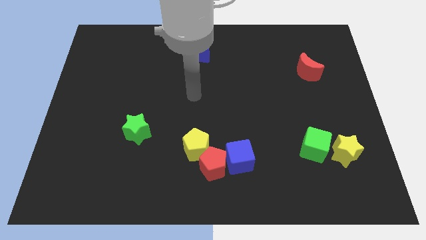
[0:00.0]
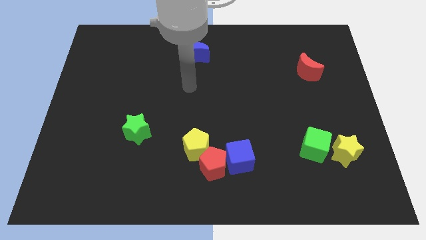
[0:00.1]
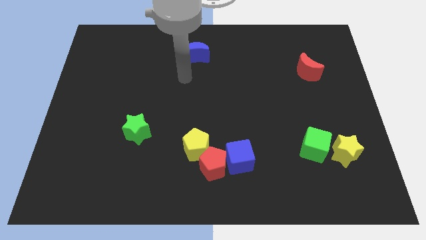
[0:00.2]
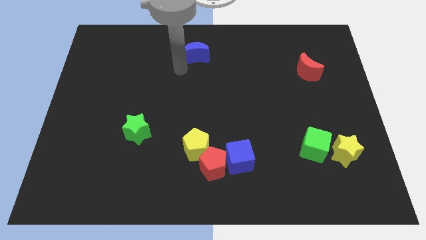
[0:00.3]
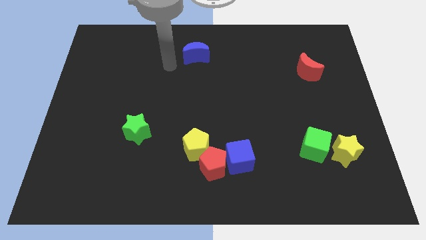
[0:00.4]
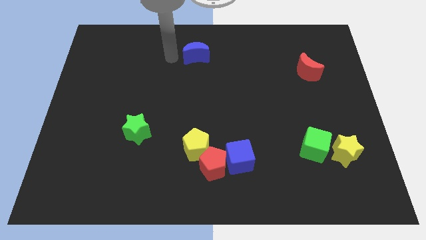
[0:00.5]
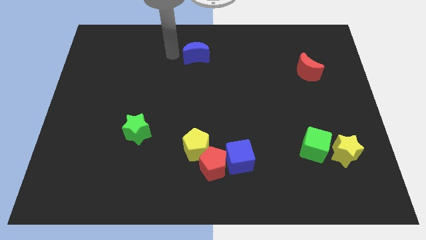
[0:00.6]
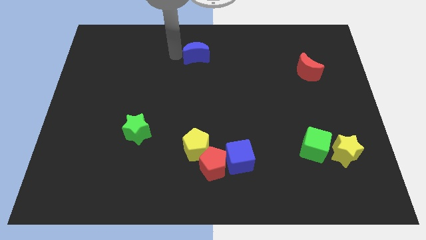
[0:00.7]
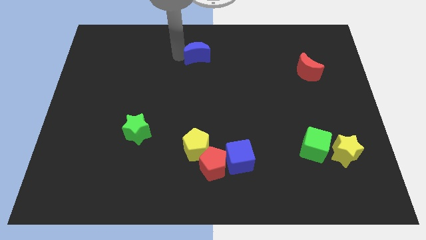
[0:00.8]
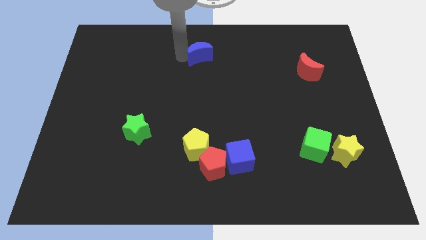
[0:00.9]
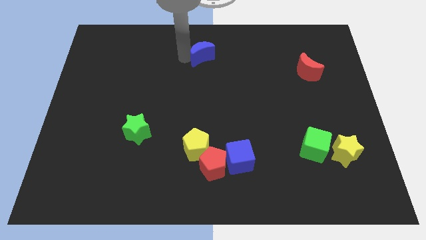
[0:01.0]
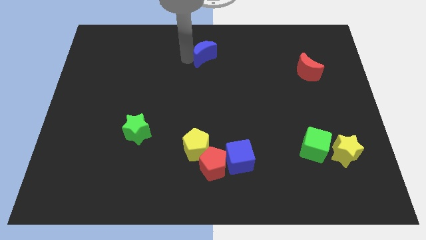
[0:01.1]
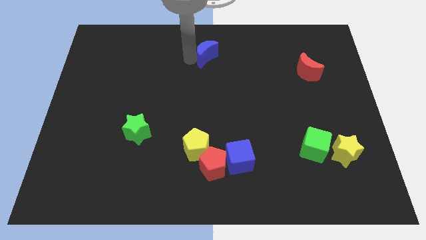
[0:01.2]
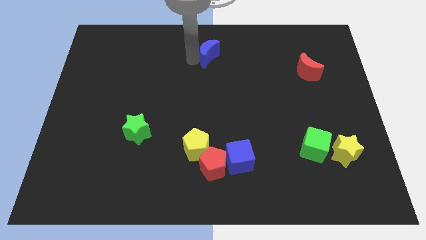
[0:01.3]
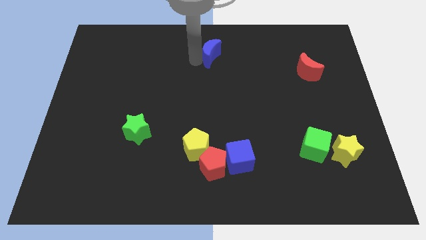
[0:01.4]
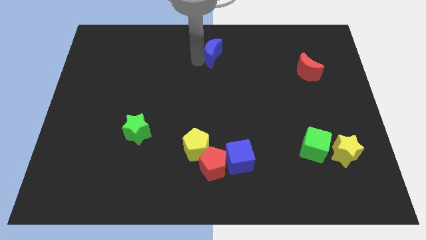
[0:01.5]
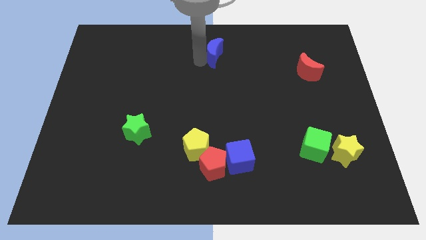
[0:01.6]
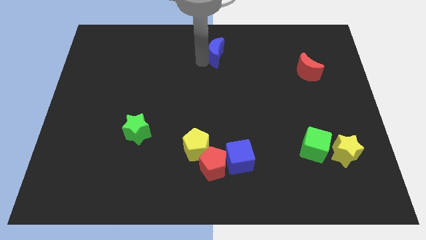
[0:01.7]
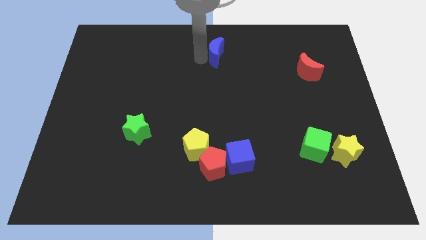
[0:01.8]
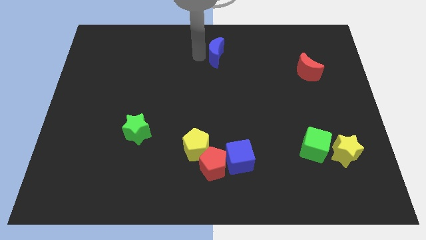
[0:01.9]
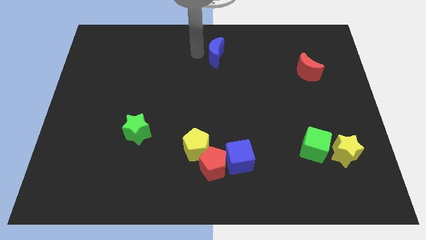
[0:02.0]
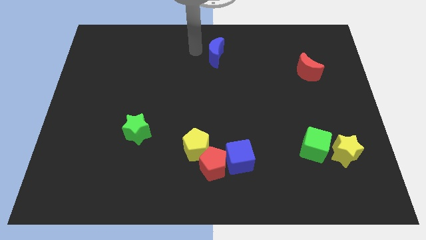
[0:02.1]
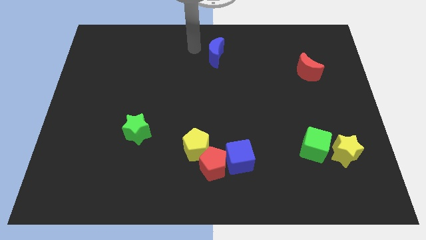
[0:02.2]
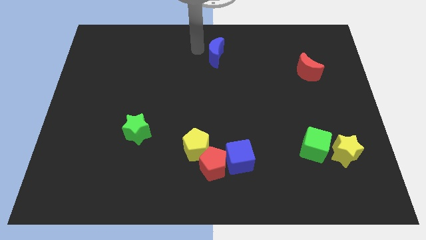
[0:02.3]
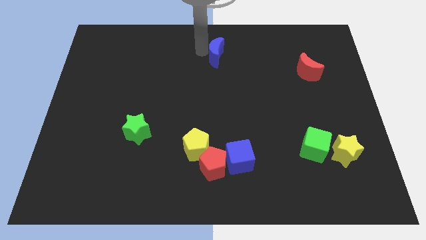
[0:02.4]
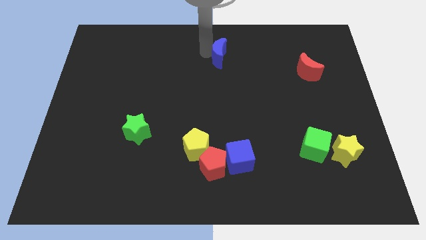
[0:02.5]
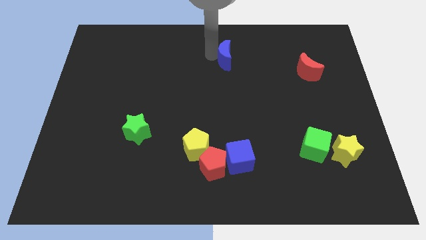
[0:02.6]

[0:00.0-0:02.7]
move the blue moon somewhat right

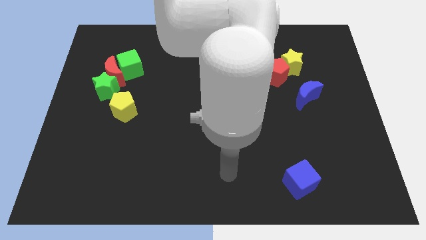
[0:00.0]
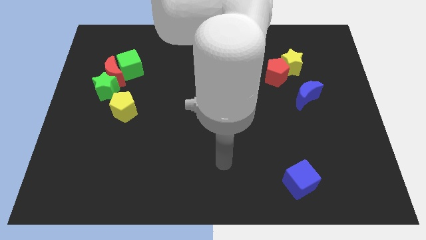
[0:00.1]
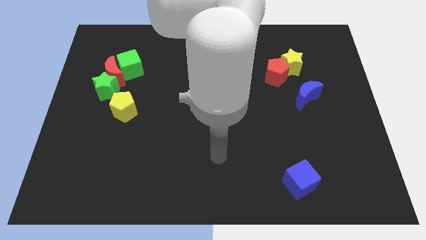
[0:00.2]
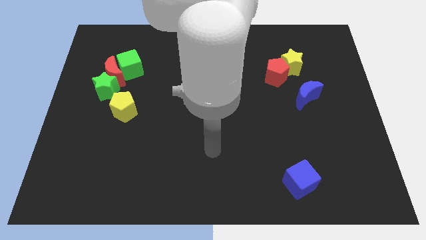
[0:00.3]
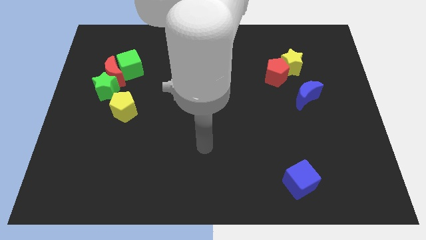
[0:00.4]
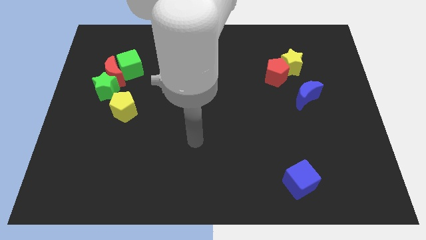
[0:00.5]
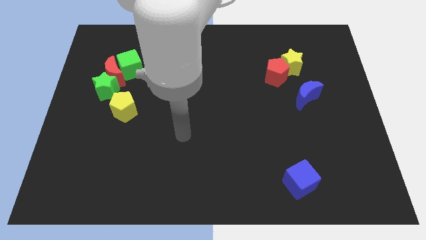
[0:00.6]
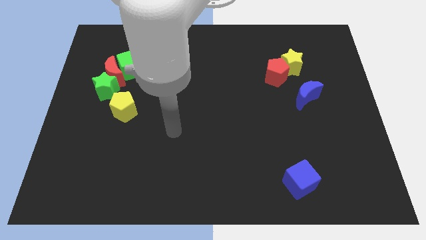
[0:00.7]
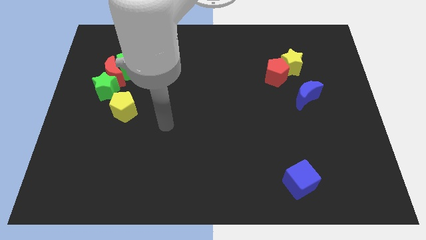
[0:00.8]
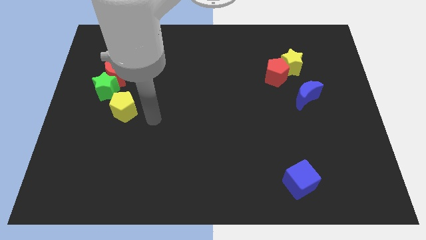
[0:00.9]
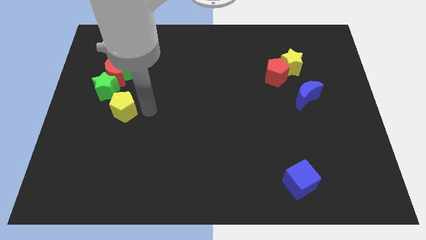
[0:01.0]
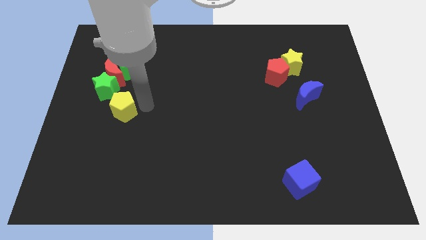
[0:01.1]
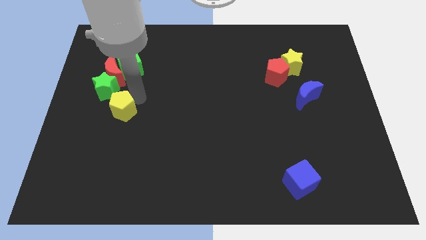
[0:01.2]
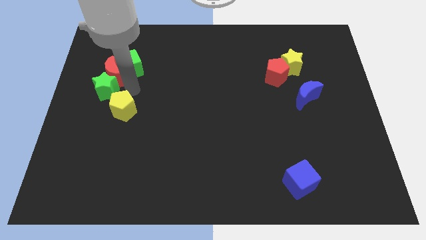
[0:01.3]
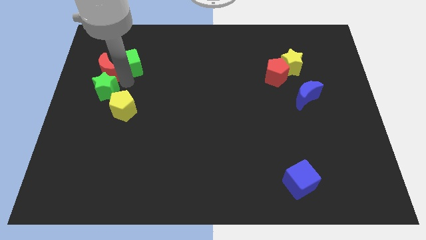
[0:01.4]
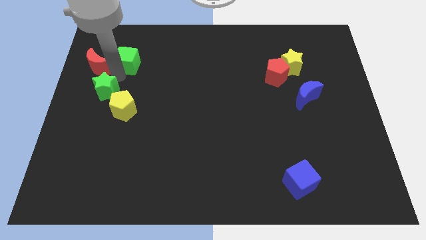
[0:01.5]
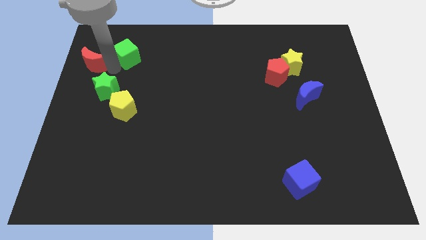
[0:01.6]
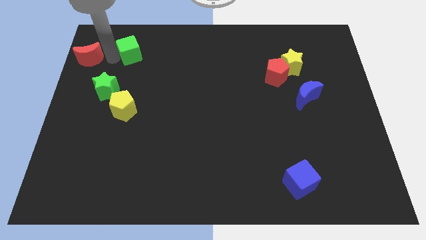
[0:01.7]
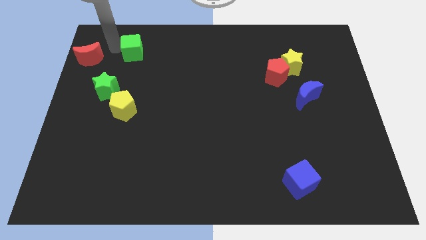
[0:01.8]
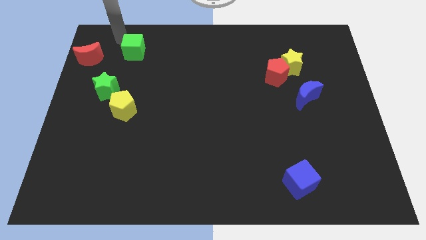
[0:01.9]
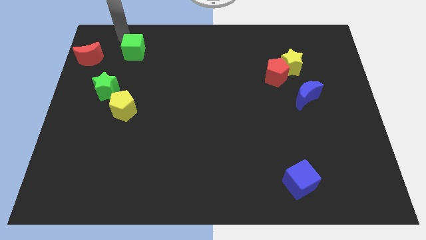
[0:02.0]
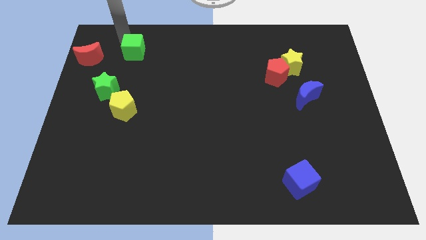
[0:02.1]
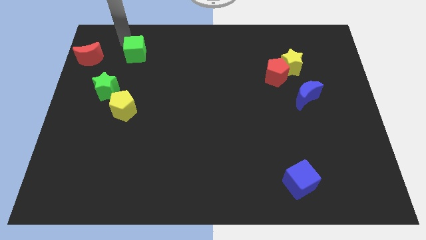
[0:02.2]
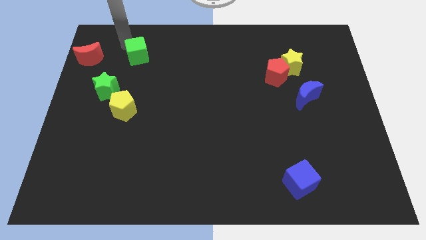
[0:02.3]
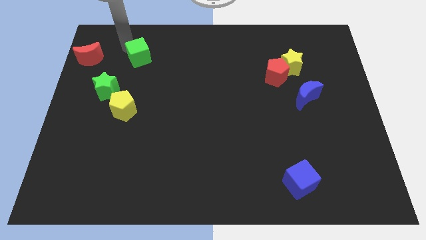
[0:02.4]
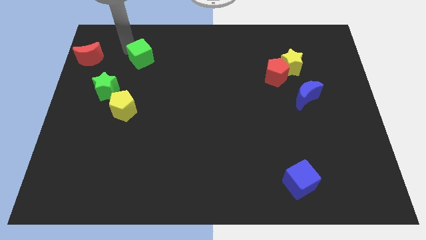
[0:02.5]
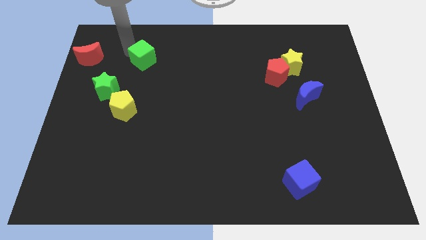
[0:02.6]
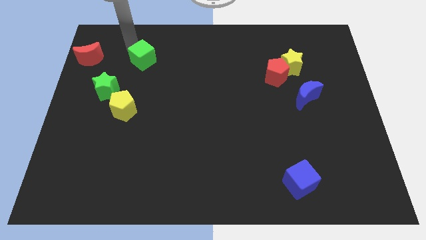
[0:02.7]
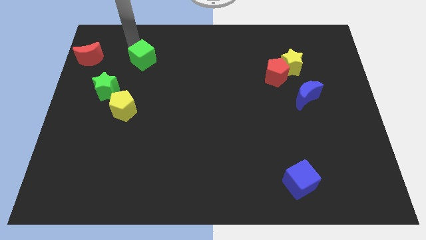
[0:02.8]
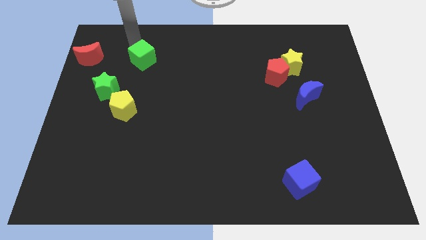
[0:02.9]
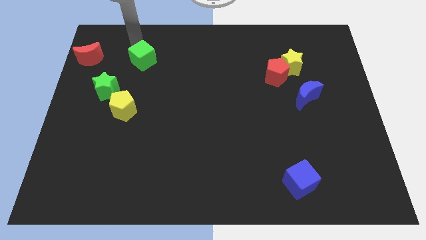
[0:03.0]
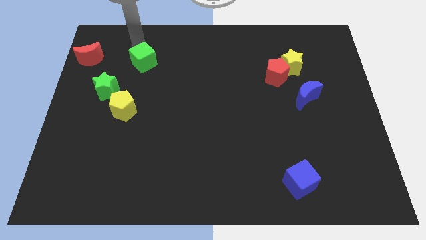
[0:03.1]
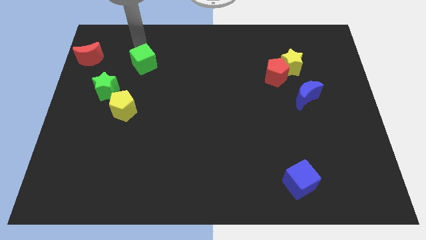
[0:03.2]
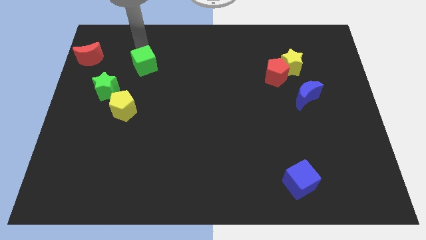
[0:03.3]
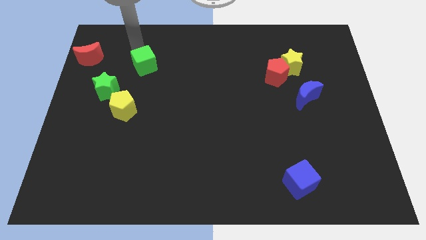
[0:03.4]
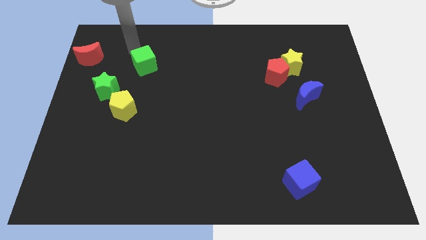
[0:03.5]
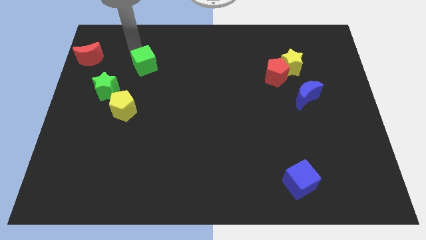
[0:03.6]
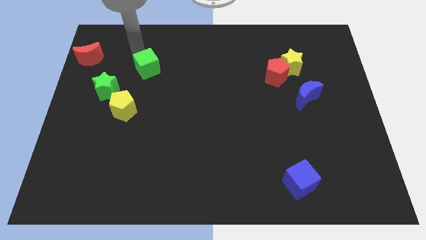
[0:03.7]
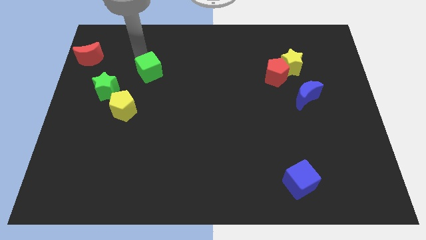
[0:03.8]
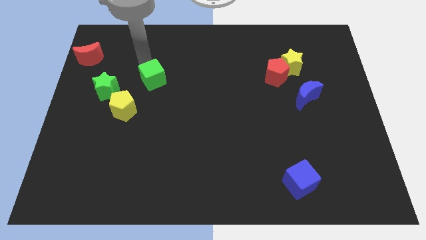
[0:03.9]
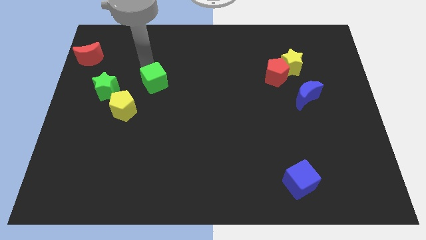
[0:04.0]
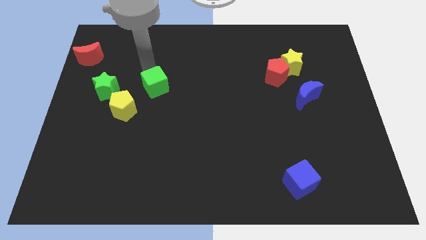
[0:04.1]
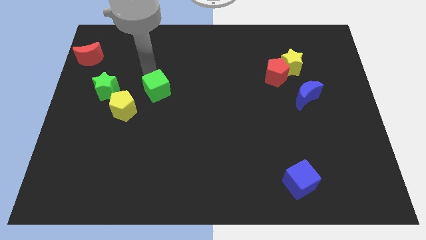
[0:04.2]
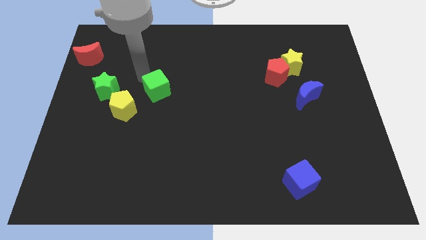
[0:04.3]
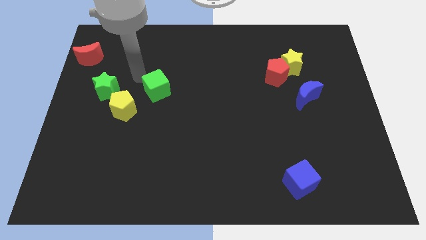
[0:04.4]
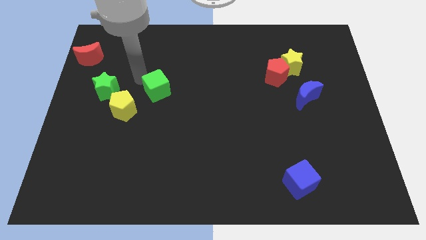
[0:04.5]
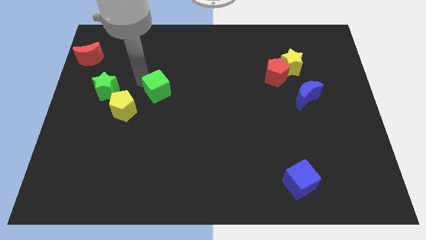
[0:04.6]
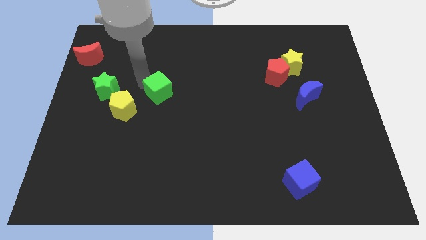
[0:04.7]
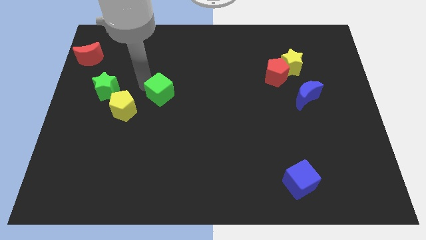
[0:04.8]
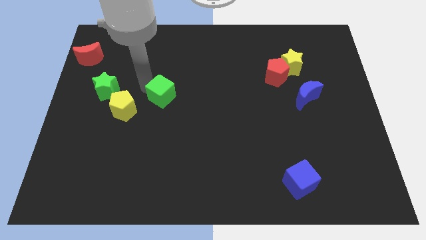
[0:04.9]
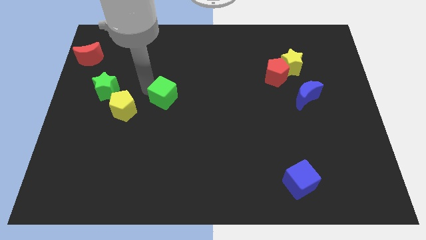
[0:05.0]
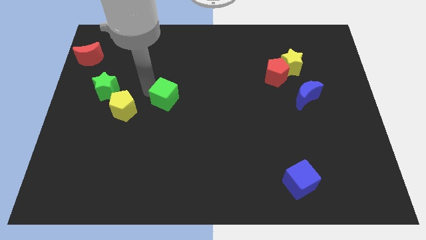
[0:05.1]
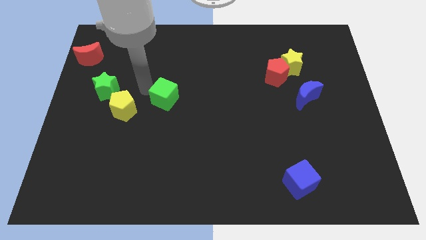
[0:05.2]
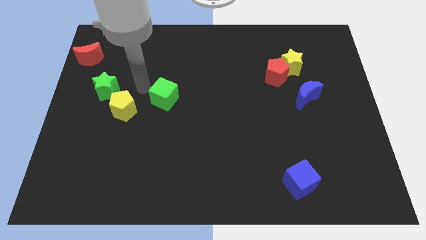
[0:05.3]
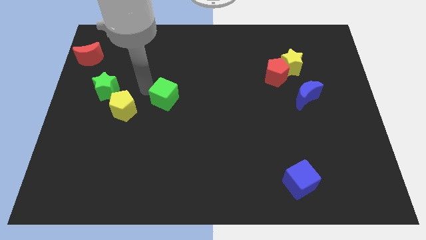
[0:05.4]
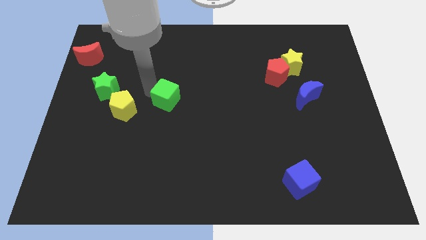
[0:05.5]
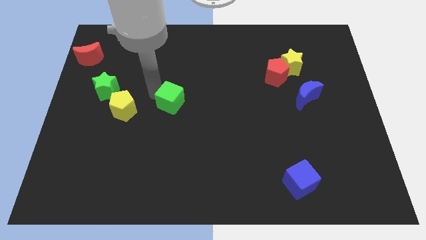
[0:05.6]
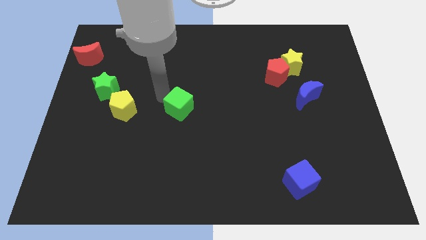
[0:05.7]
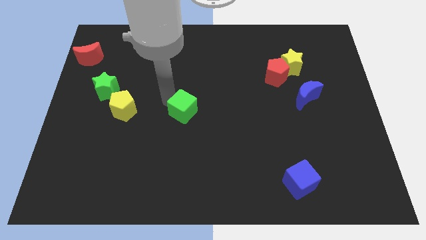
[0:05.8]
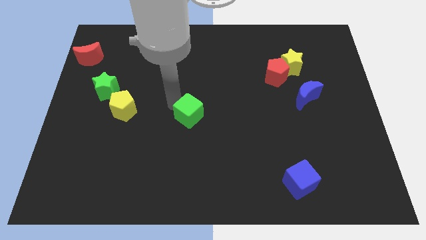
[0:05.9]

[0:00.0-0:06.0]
move the green cube down and right
